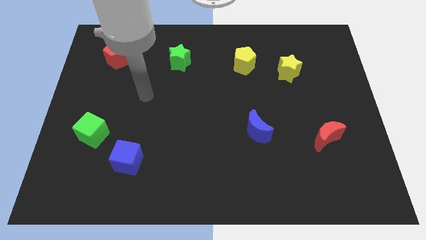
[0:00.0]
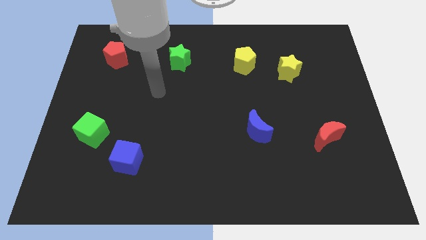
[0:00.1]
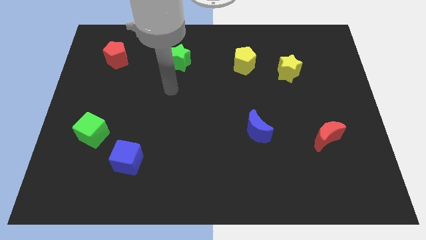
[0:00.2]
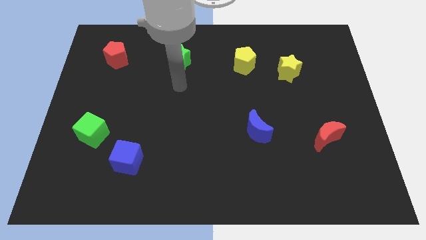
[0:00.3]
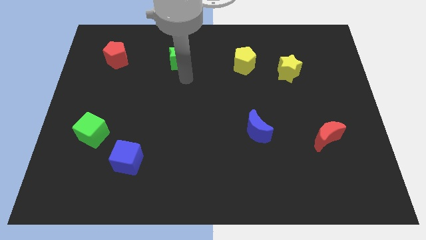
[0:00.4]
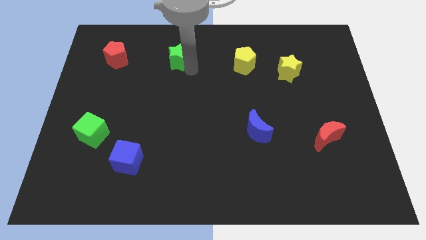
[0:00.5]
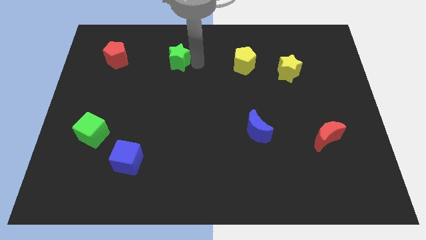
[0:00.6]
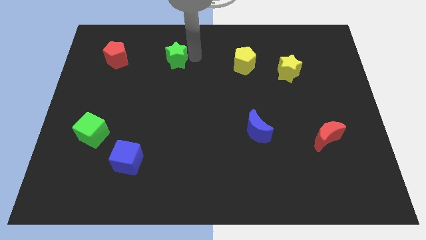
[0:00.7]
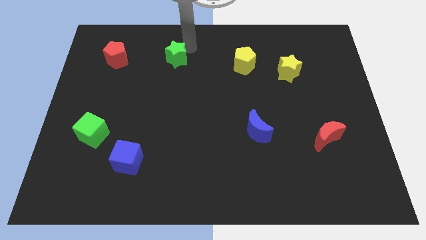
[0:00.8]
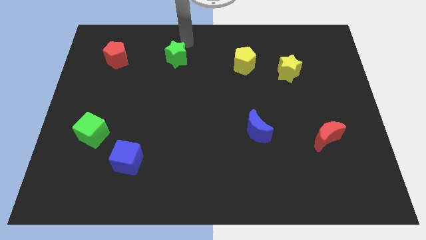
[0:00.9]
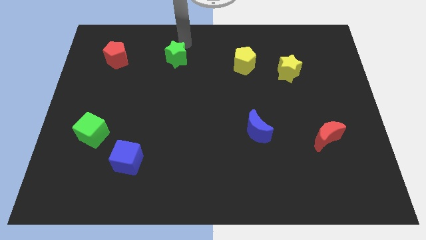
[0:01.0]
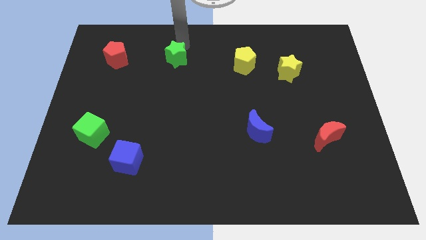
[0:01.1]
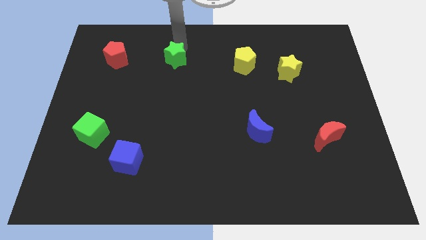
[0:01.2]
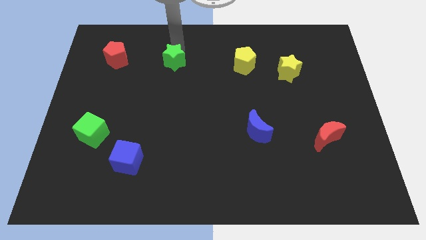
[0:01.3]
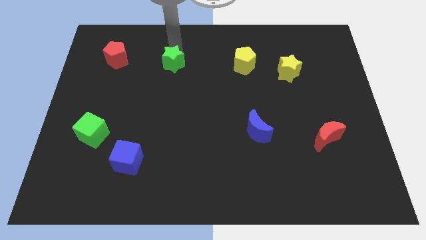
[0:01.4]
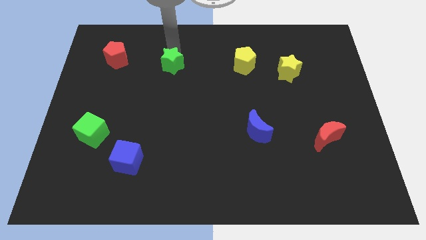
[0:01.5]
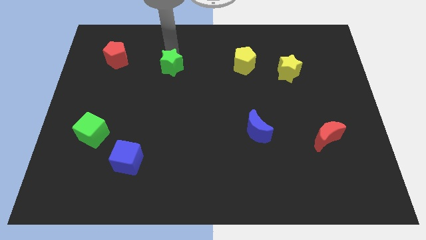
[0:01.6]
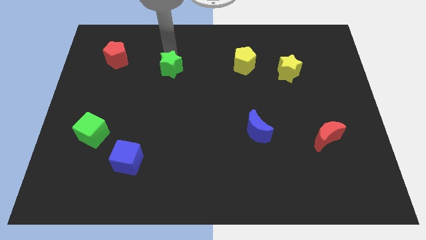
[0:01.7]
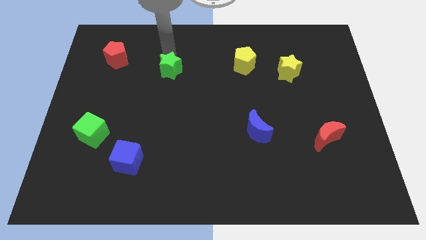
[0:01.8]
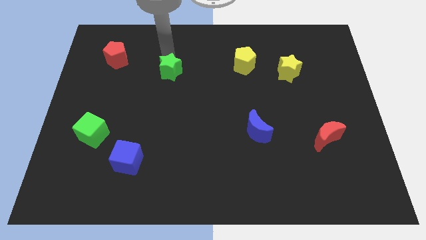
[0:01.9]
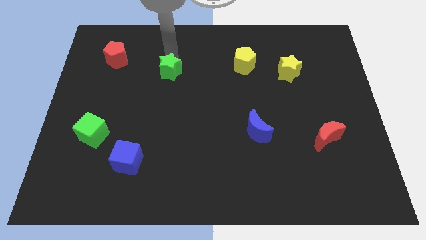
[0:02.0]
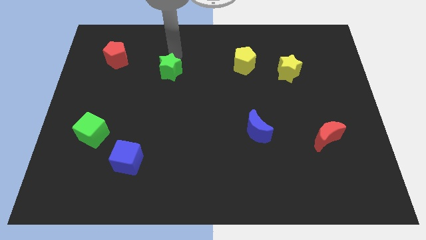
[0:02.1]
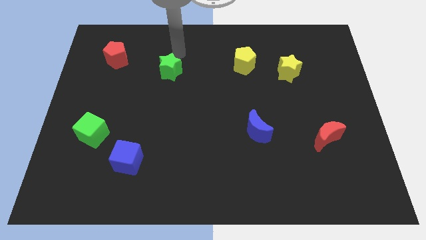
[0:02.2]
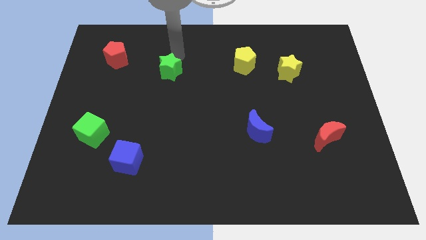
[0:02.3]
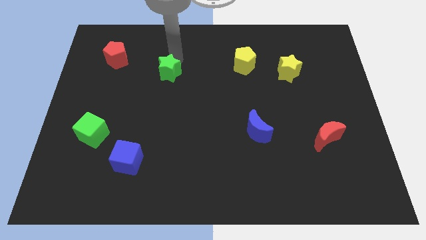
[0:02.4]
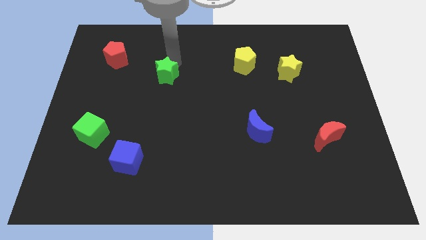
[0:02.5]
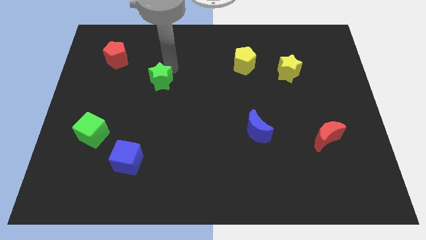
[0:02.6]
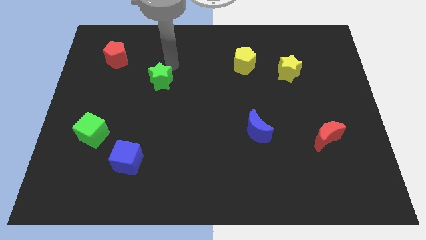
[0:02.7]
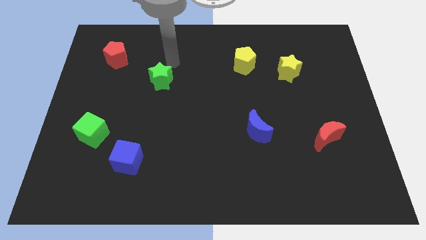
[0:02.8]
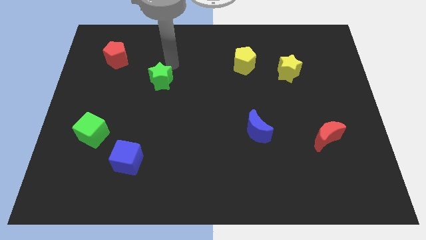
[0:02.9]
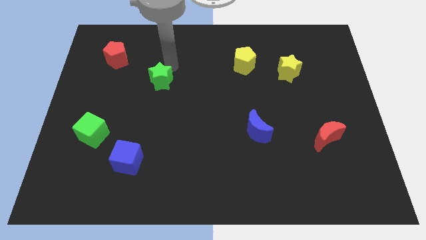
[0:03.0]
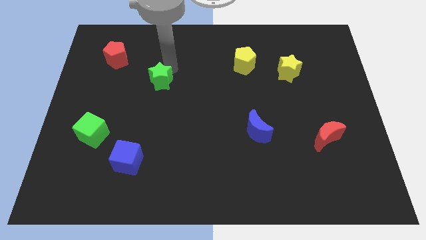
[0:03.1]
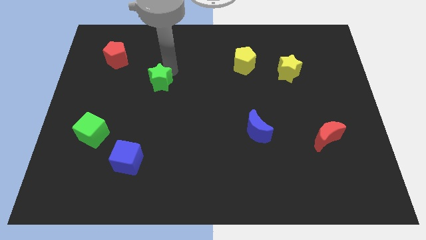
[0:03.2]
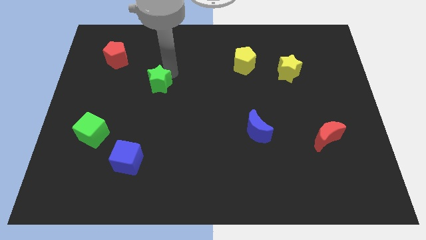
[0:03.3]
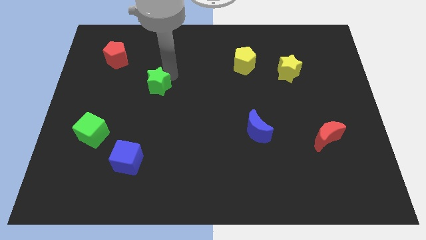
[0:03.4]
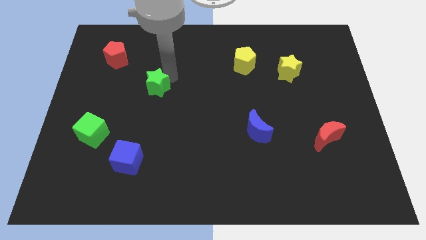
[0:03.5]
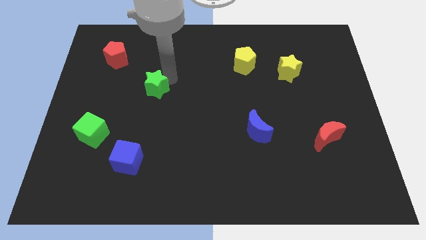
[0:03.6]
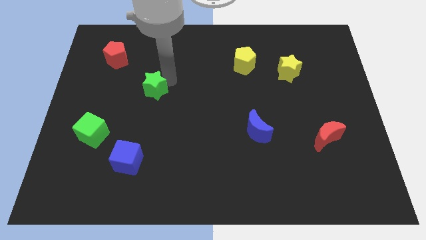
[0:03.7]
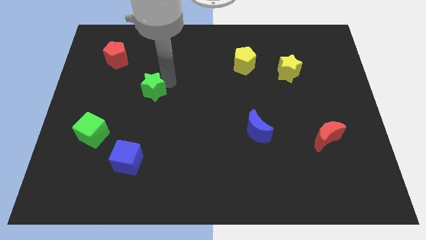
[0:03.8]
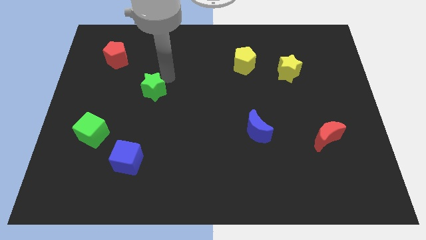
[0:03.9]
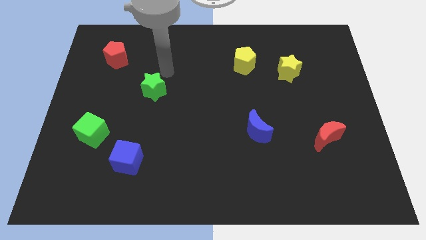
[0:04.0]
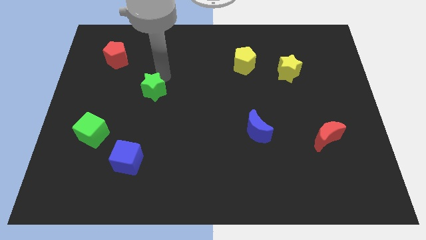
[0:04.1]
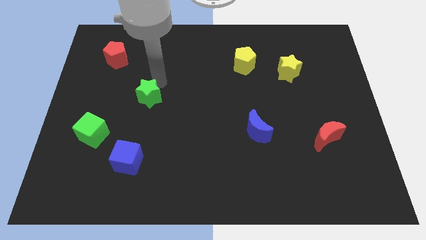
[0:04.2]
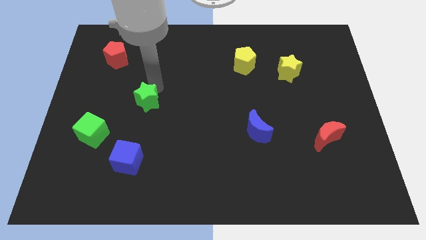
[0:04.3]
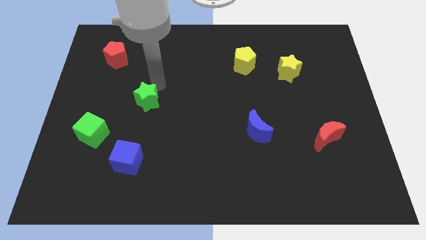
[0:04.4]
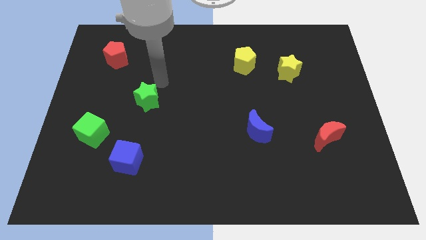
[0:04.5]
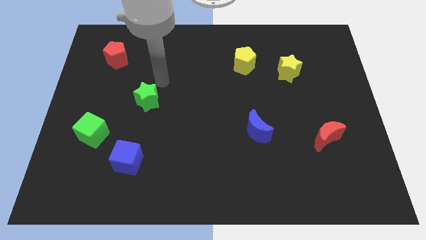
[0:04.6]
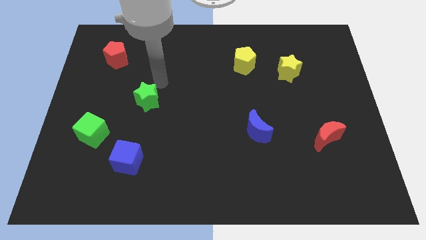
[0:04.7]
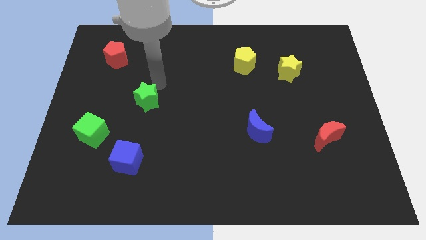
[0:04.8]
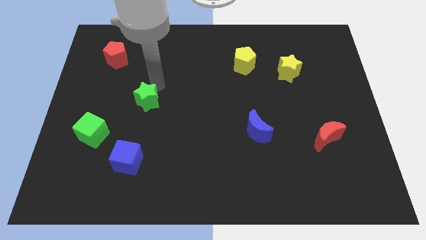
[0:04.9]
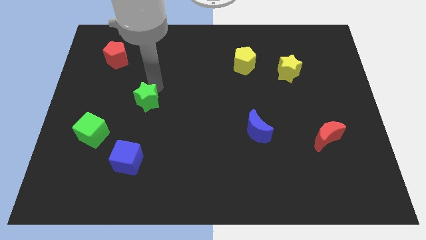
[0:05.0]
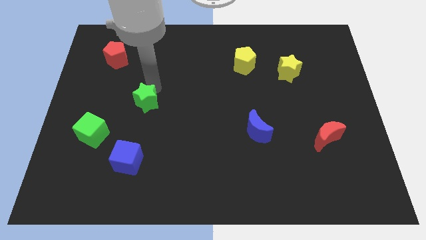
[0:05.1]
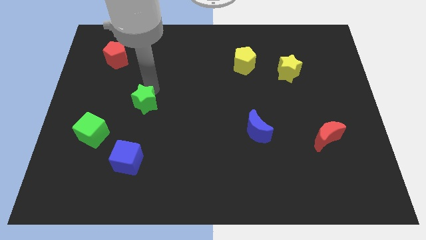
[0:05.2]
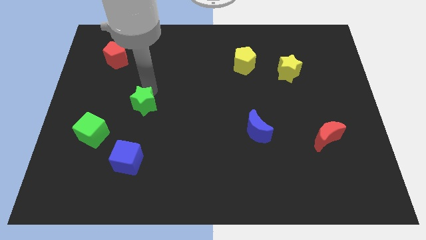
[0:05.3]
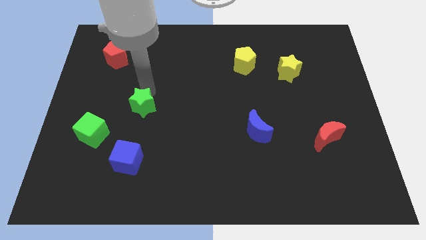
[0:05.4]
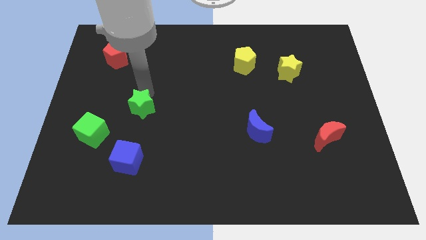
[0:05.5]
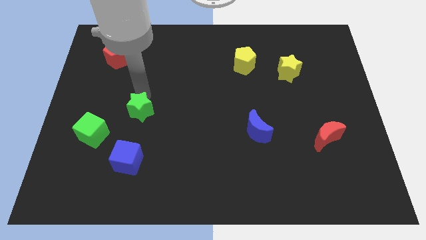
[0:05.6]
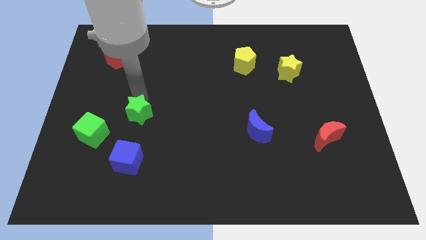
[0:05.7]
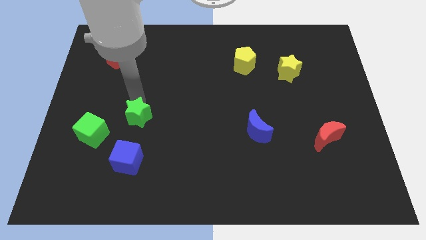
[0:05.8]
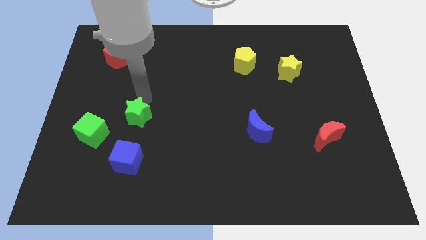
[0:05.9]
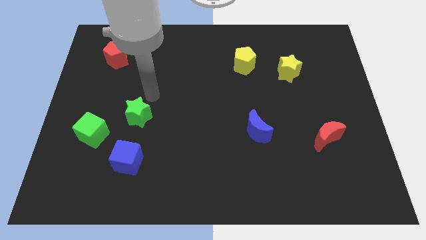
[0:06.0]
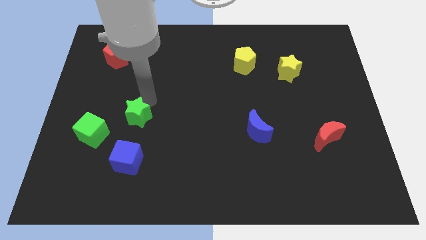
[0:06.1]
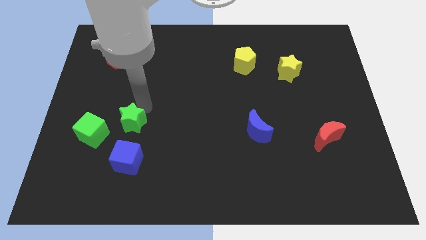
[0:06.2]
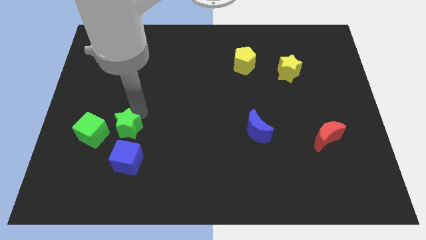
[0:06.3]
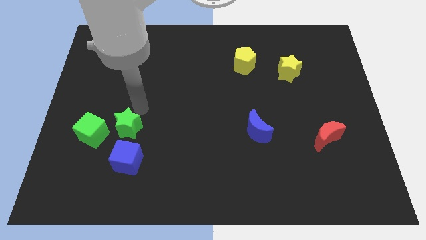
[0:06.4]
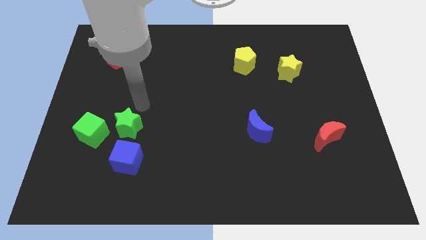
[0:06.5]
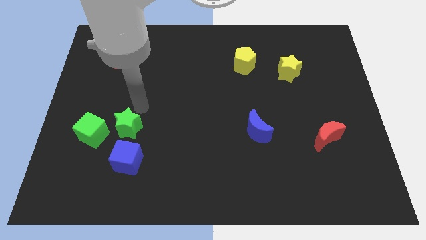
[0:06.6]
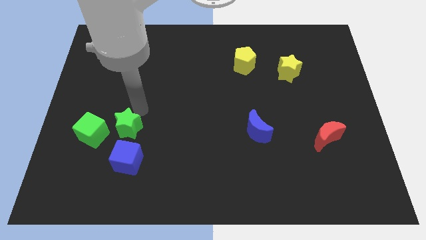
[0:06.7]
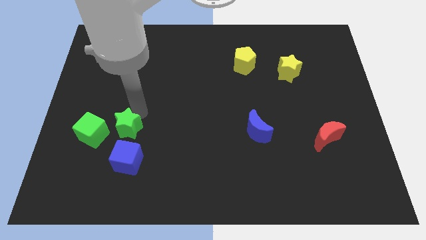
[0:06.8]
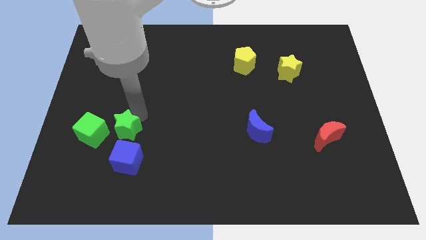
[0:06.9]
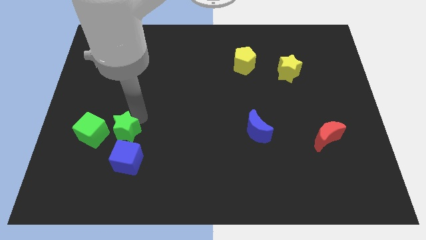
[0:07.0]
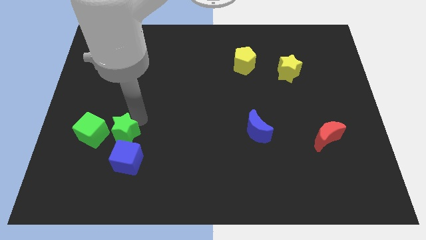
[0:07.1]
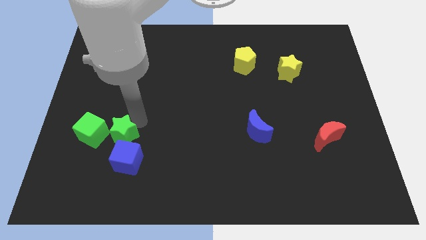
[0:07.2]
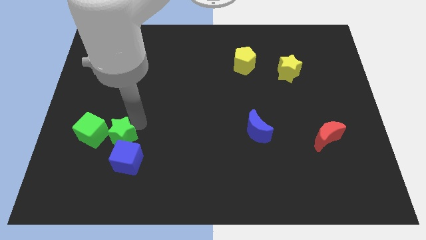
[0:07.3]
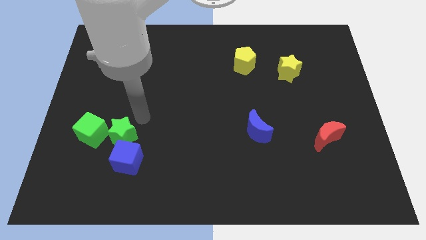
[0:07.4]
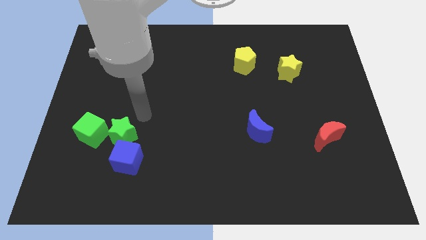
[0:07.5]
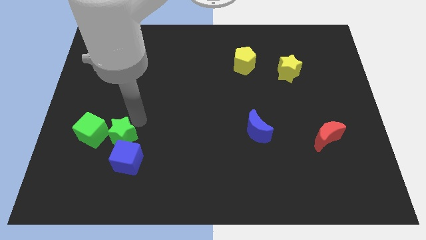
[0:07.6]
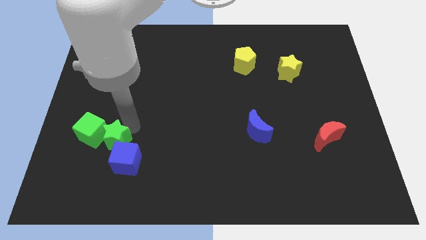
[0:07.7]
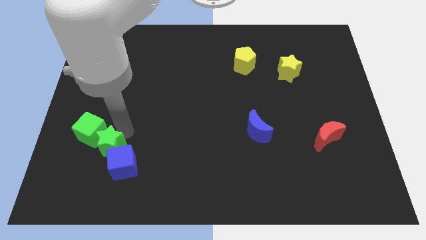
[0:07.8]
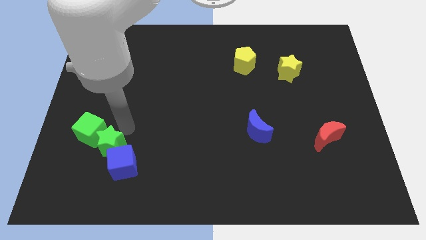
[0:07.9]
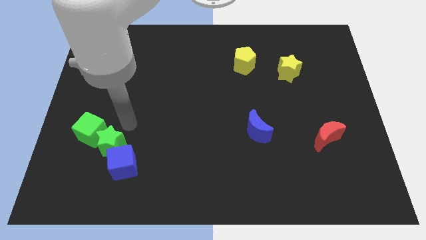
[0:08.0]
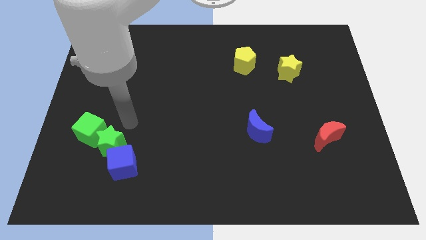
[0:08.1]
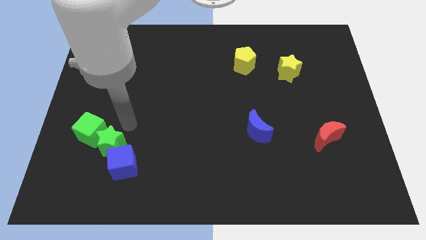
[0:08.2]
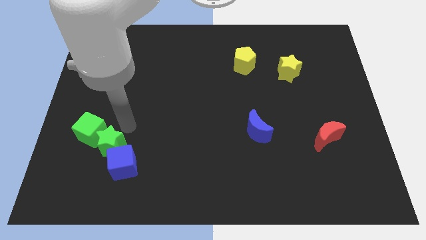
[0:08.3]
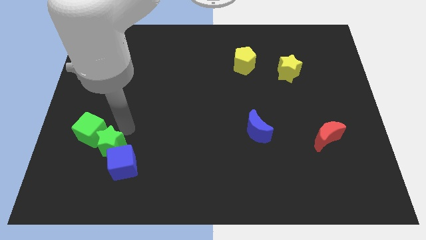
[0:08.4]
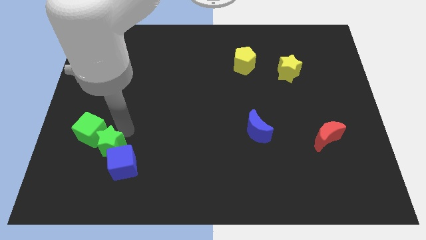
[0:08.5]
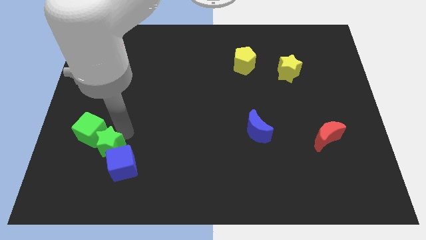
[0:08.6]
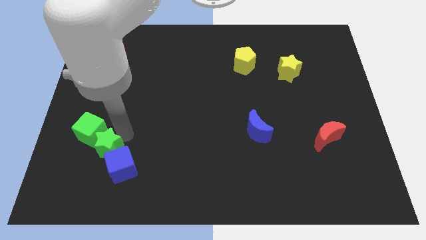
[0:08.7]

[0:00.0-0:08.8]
slide the green star to the bottom of the green cube
